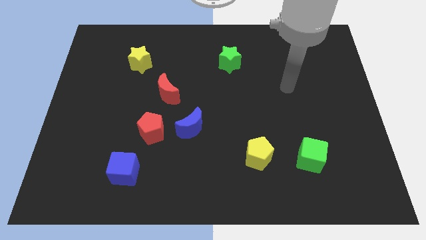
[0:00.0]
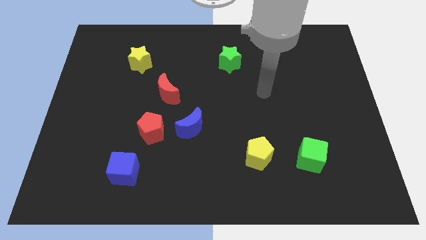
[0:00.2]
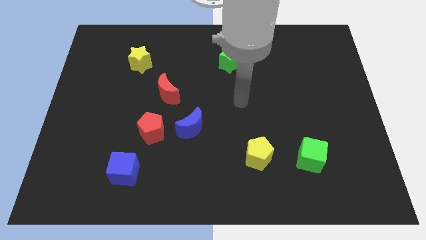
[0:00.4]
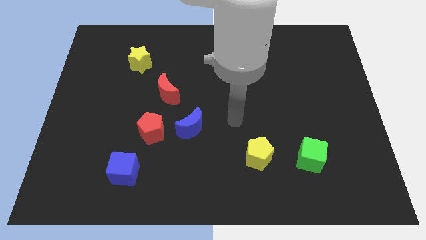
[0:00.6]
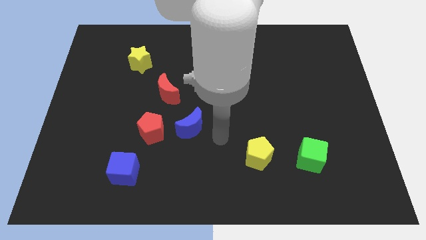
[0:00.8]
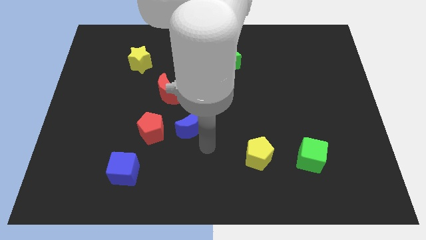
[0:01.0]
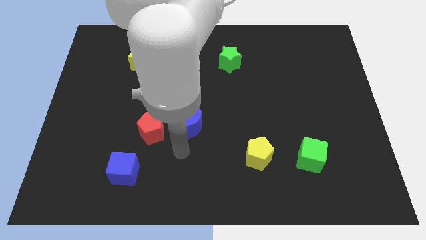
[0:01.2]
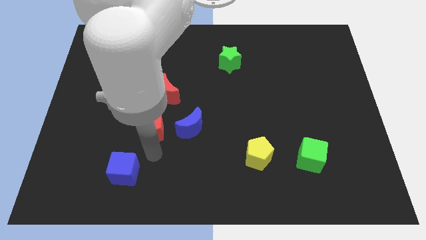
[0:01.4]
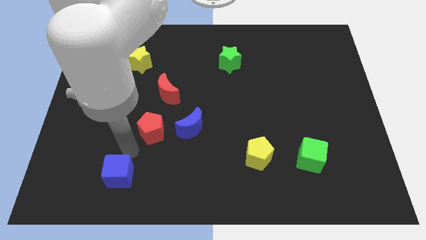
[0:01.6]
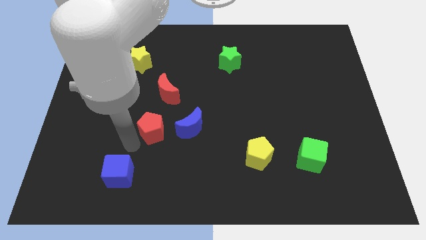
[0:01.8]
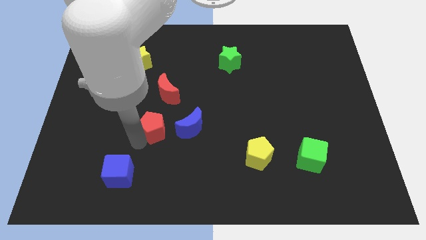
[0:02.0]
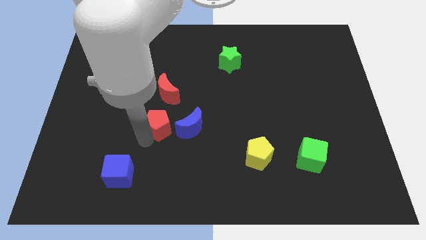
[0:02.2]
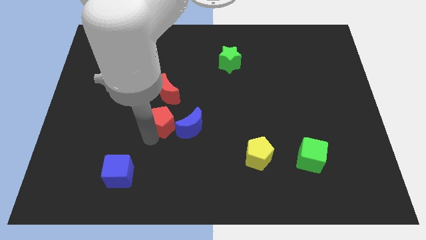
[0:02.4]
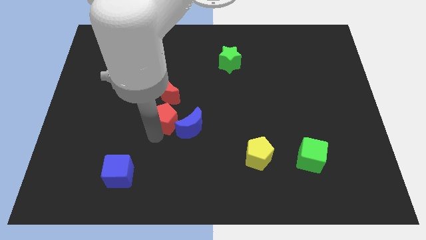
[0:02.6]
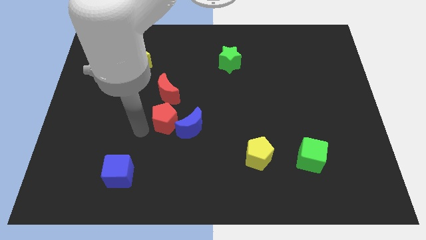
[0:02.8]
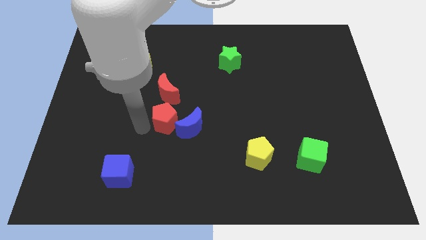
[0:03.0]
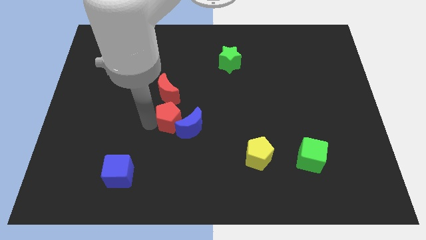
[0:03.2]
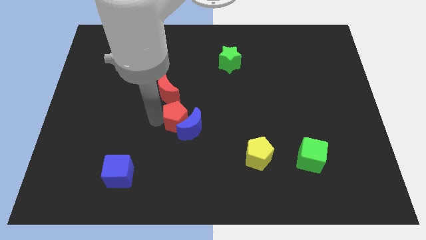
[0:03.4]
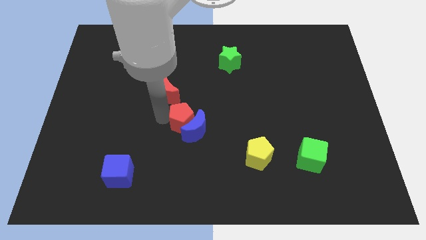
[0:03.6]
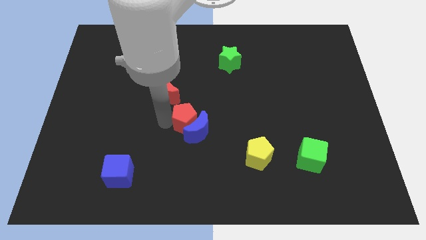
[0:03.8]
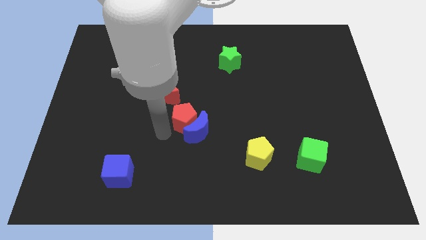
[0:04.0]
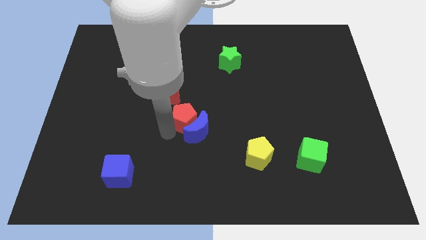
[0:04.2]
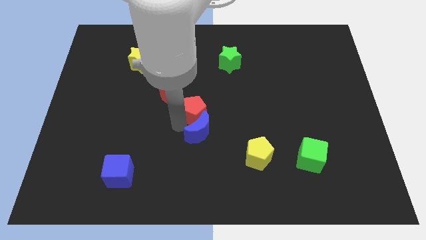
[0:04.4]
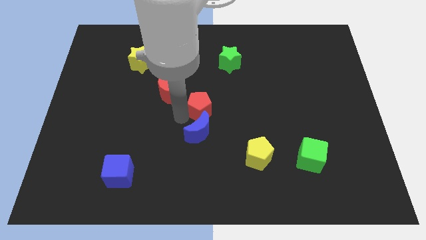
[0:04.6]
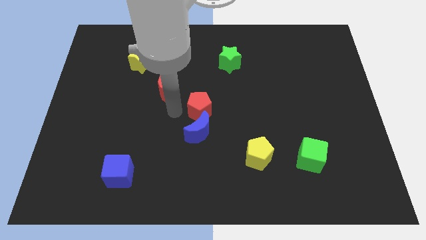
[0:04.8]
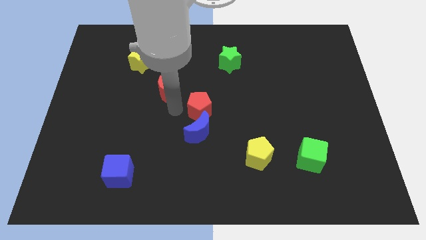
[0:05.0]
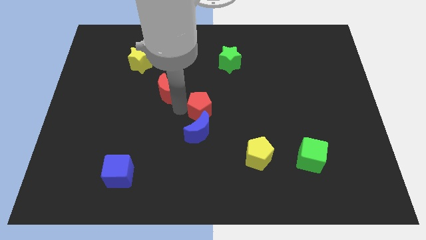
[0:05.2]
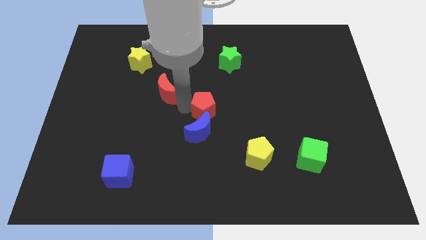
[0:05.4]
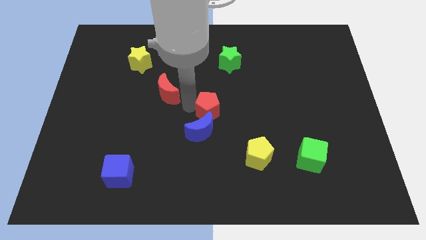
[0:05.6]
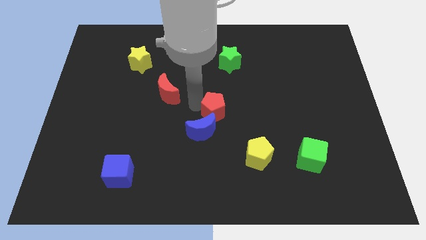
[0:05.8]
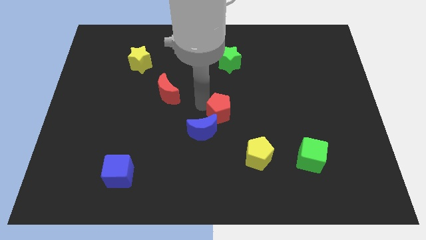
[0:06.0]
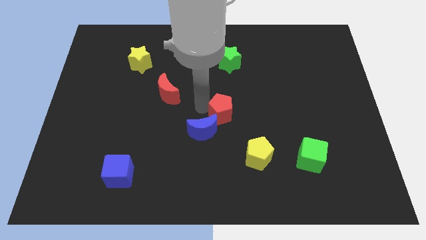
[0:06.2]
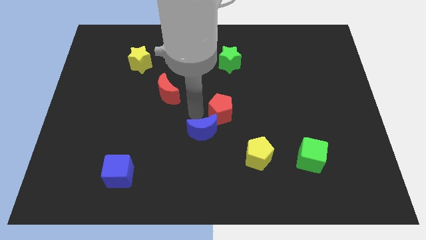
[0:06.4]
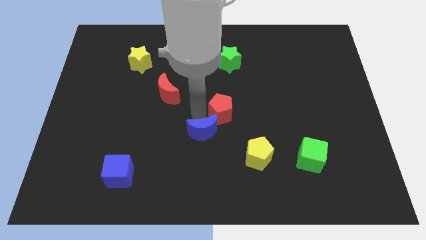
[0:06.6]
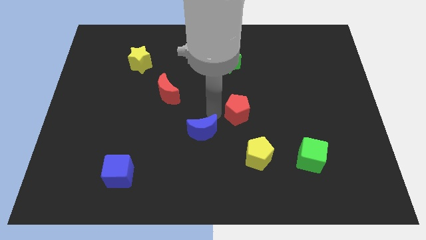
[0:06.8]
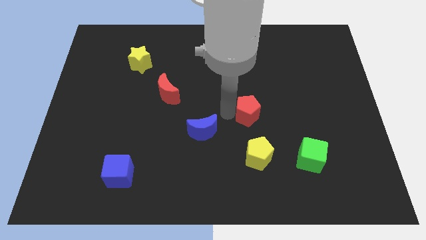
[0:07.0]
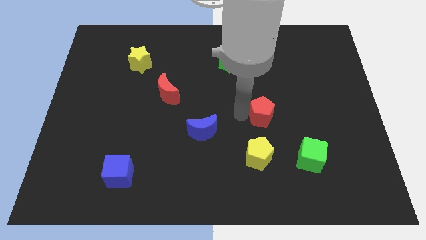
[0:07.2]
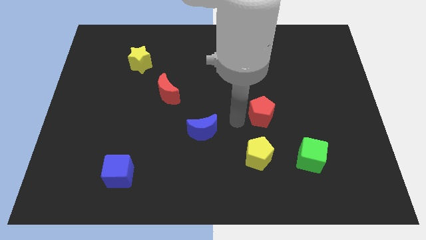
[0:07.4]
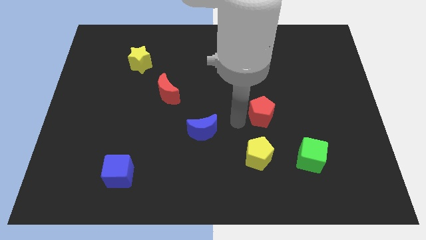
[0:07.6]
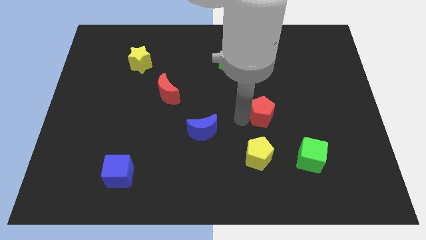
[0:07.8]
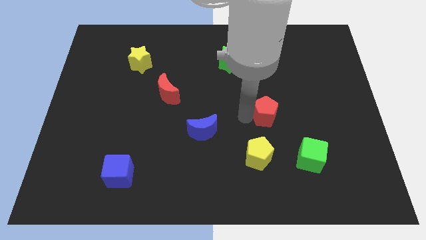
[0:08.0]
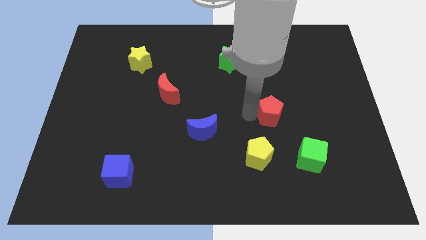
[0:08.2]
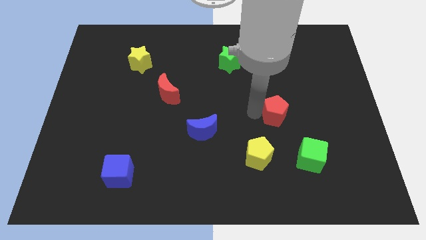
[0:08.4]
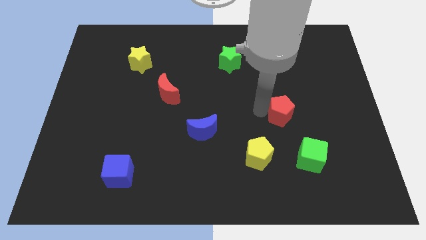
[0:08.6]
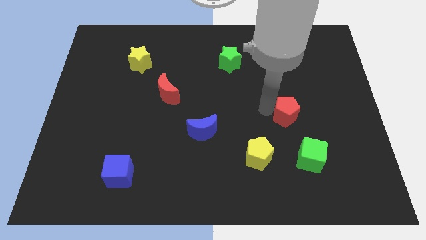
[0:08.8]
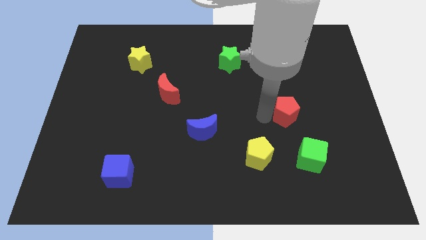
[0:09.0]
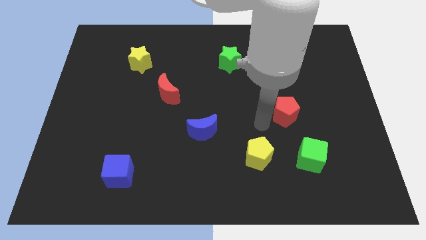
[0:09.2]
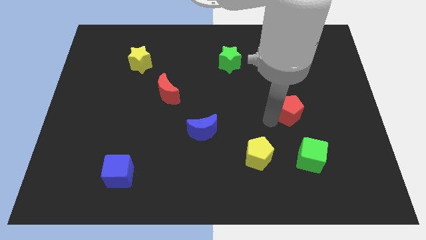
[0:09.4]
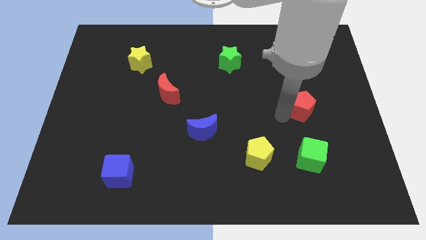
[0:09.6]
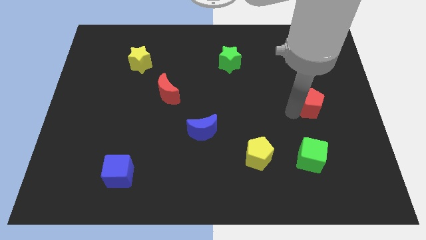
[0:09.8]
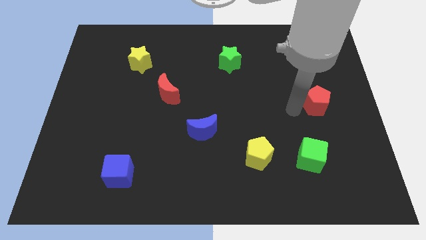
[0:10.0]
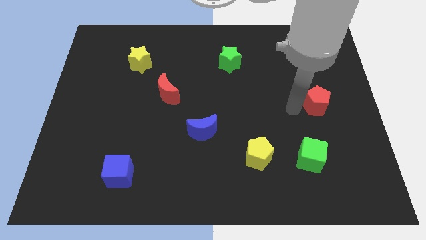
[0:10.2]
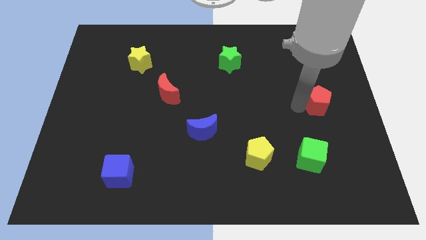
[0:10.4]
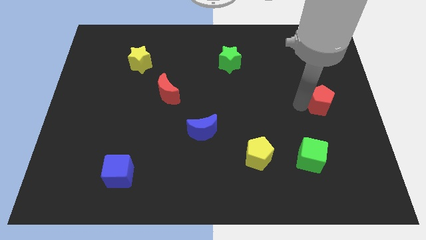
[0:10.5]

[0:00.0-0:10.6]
move the red pentagon to the center right

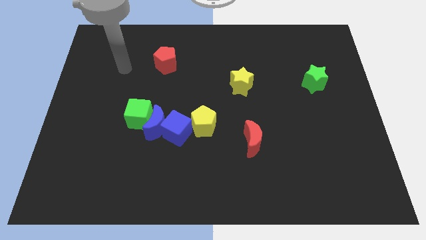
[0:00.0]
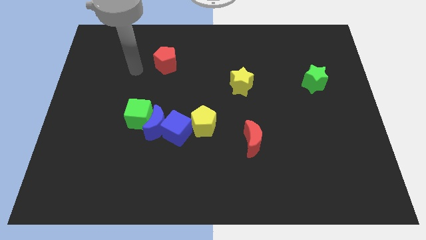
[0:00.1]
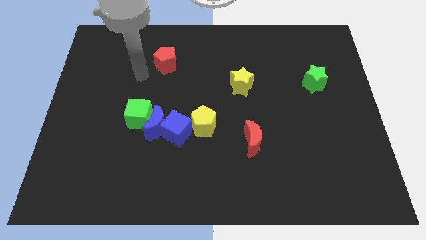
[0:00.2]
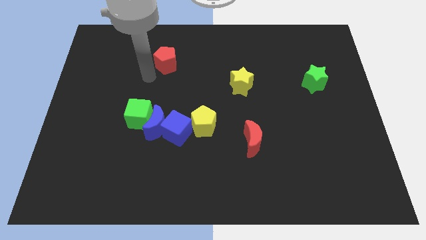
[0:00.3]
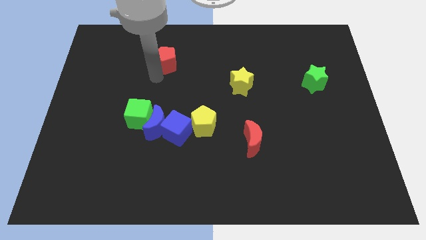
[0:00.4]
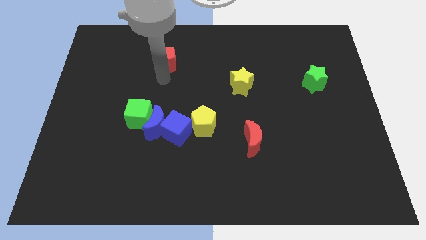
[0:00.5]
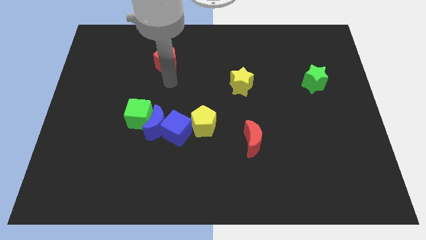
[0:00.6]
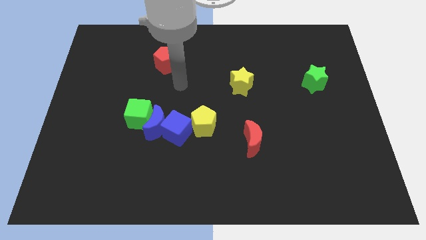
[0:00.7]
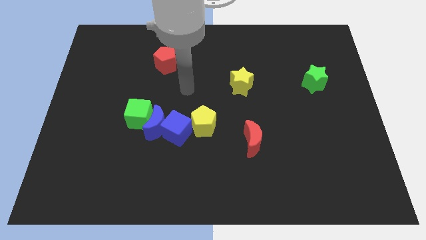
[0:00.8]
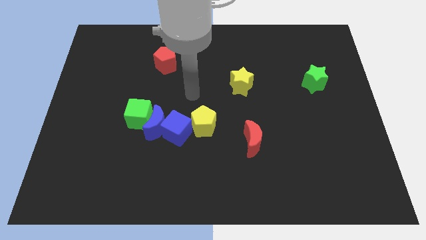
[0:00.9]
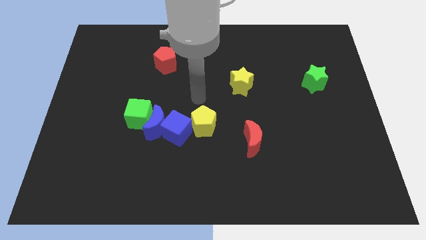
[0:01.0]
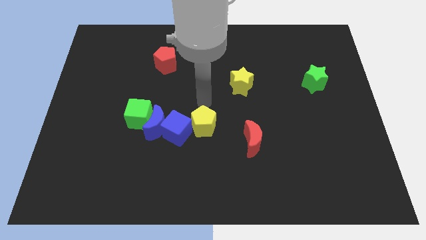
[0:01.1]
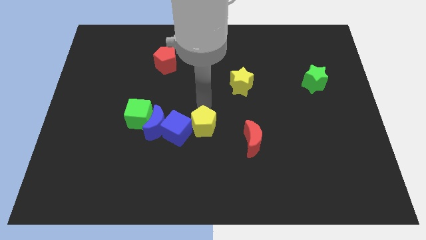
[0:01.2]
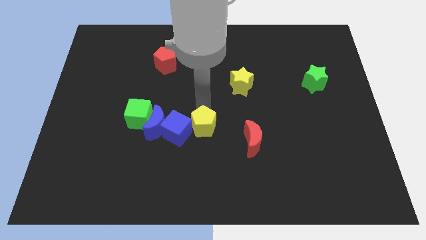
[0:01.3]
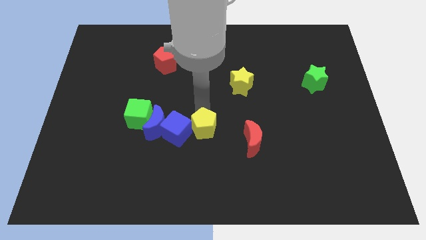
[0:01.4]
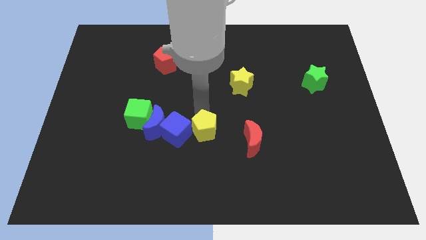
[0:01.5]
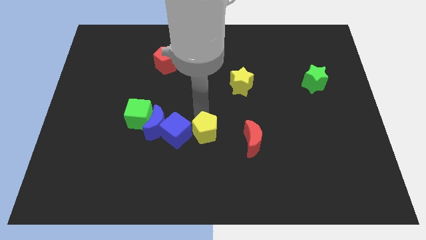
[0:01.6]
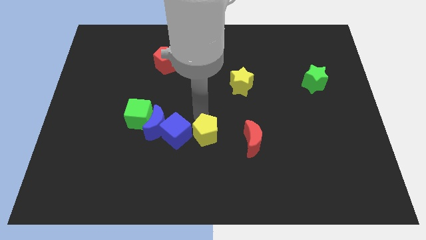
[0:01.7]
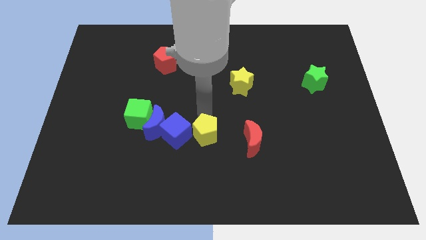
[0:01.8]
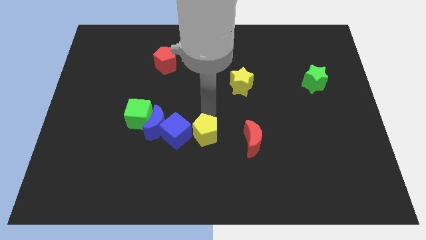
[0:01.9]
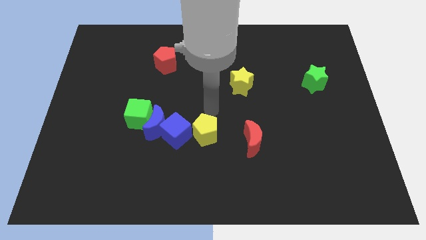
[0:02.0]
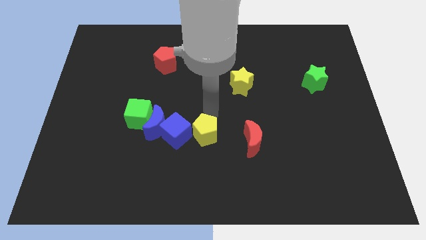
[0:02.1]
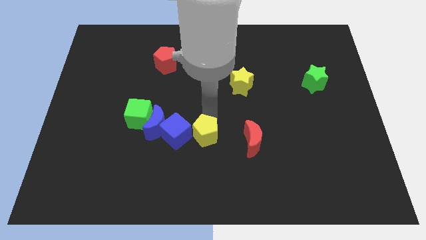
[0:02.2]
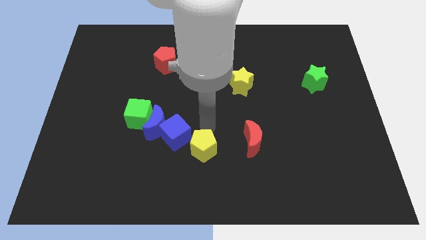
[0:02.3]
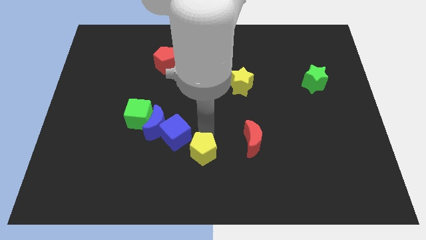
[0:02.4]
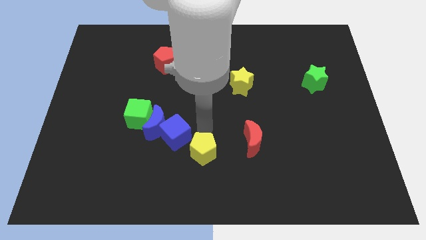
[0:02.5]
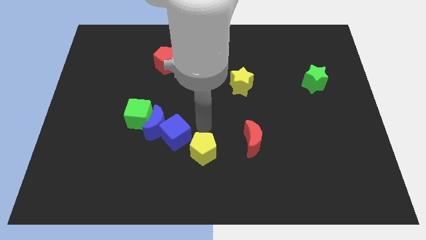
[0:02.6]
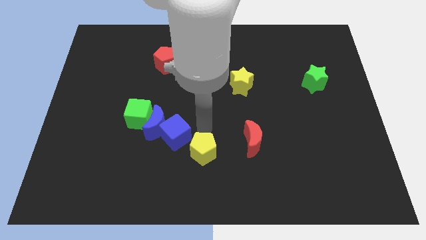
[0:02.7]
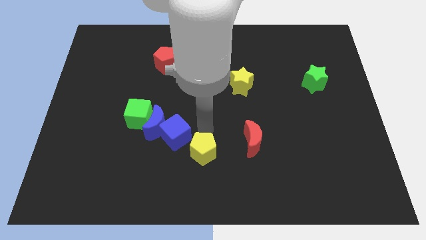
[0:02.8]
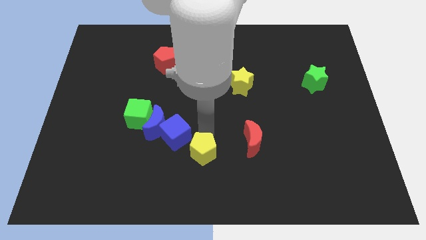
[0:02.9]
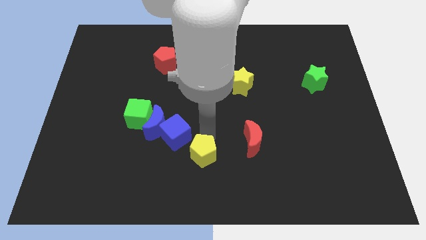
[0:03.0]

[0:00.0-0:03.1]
put the yellow pentagon to the bottom side
